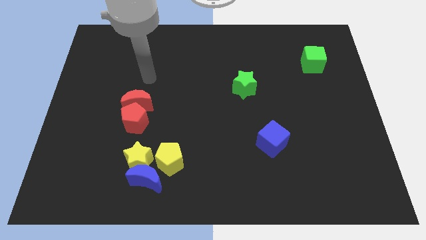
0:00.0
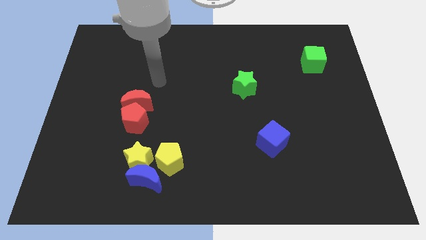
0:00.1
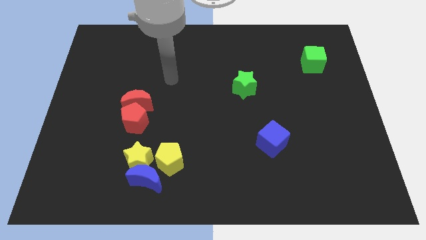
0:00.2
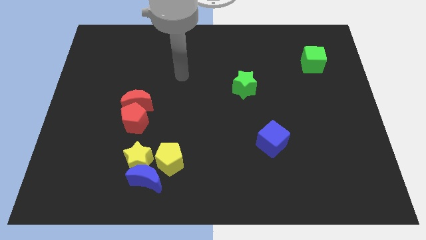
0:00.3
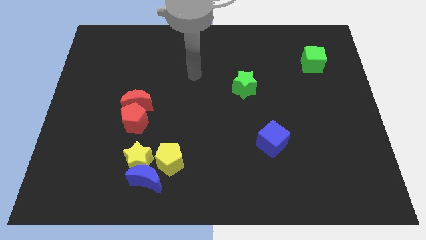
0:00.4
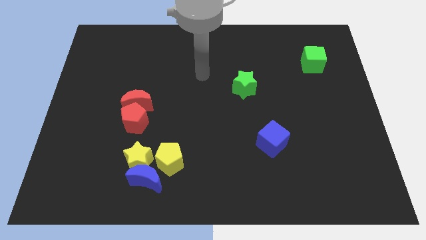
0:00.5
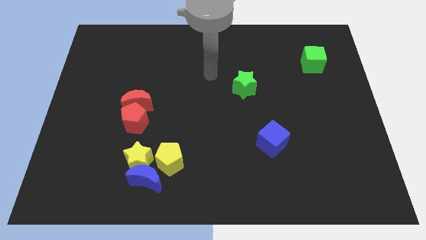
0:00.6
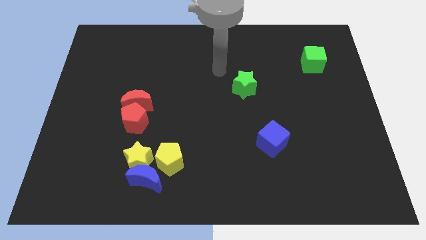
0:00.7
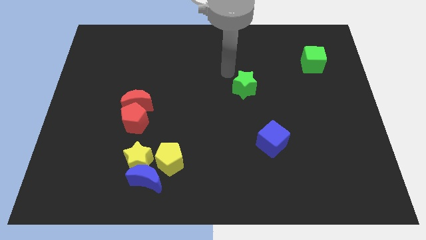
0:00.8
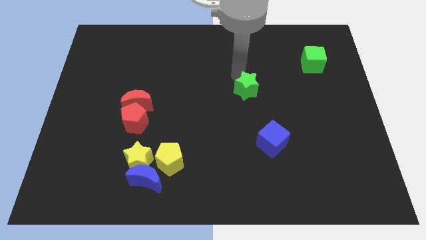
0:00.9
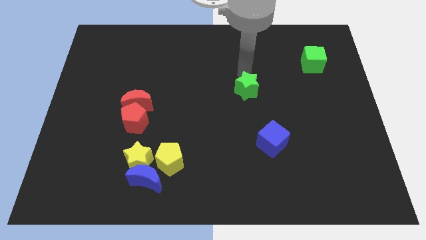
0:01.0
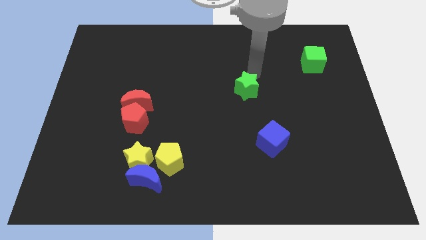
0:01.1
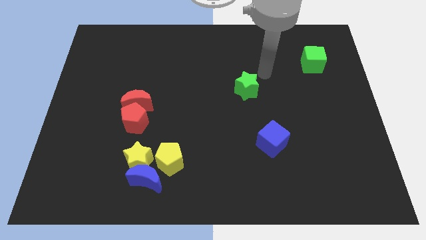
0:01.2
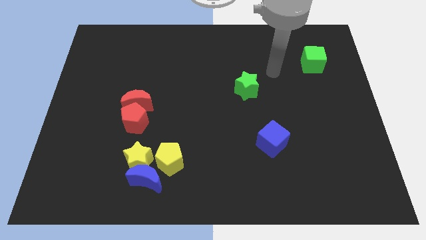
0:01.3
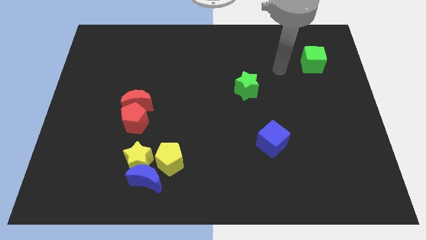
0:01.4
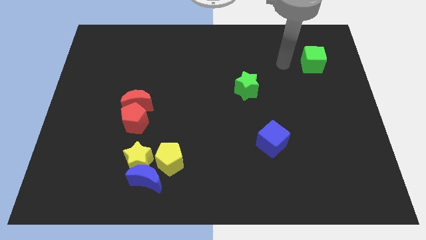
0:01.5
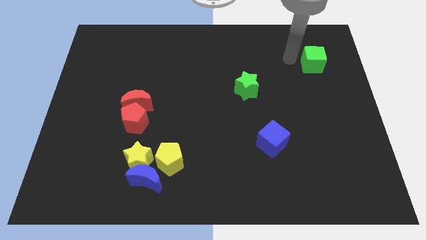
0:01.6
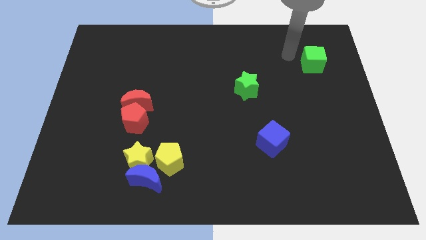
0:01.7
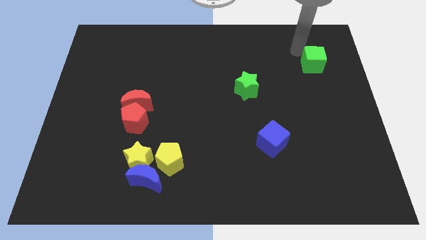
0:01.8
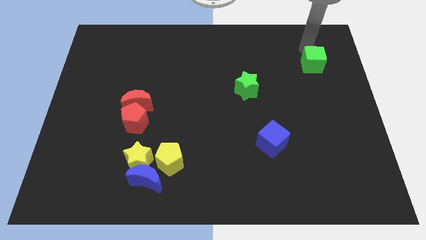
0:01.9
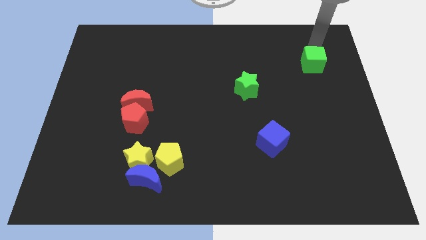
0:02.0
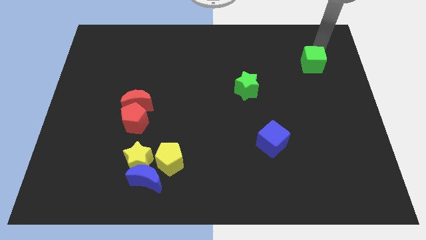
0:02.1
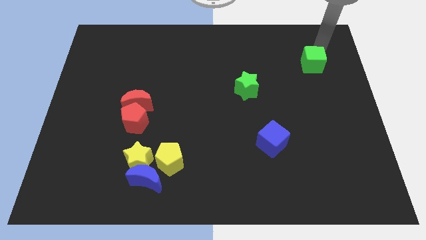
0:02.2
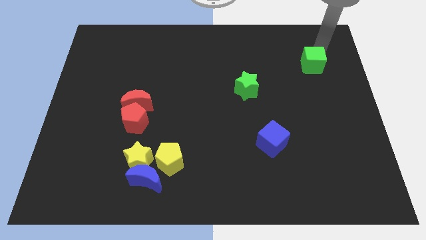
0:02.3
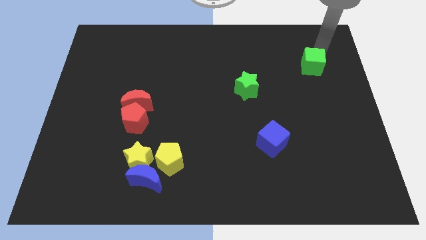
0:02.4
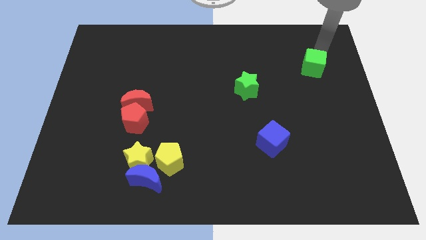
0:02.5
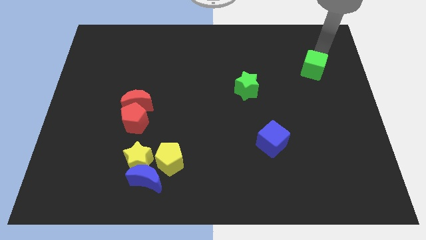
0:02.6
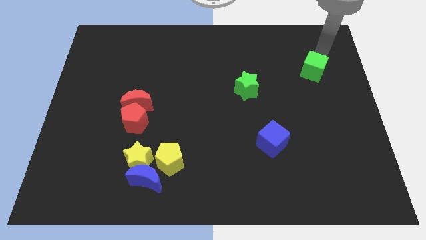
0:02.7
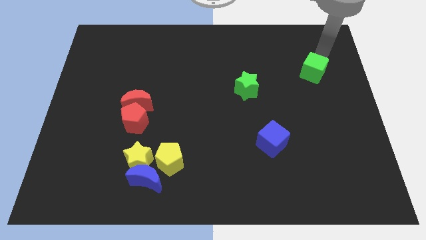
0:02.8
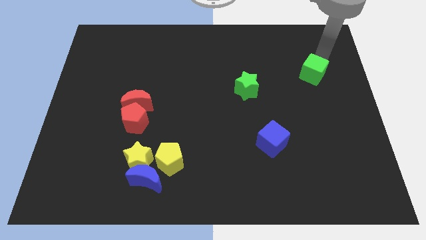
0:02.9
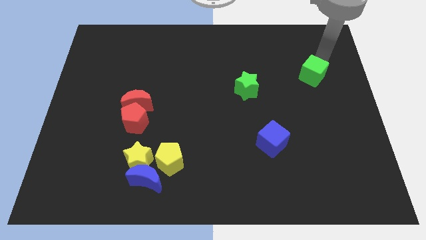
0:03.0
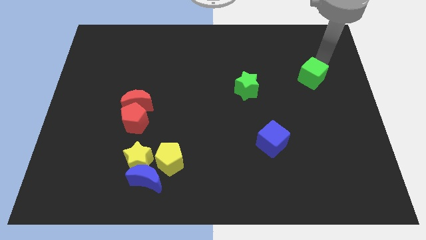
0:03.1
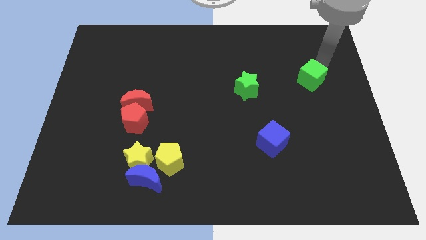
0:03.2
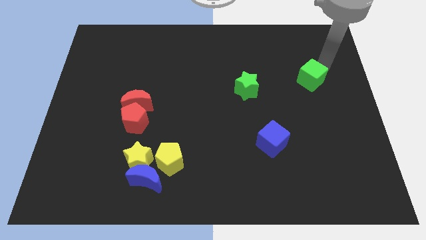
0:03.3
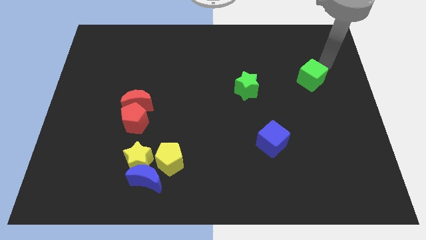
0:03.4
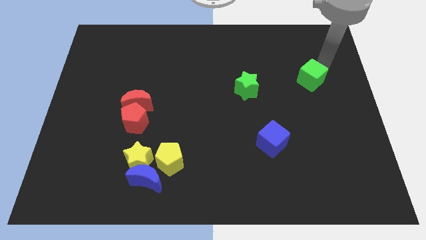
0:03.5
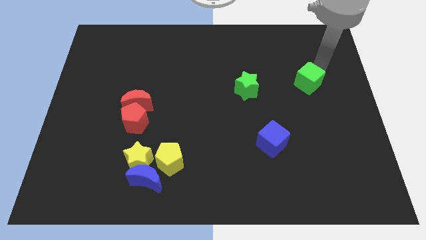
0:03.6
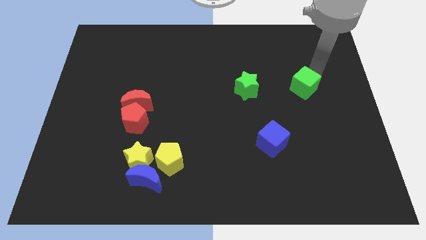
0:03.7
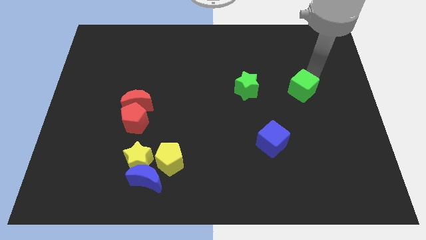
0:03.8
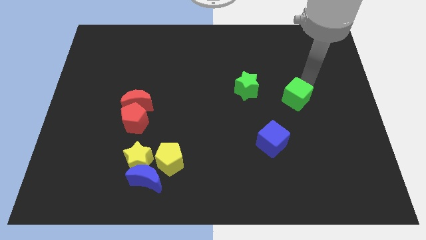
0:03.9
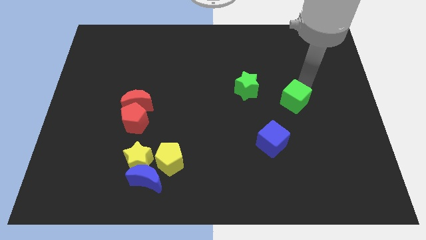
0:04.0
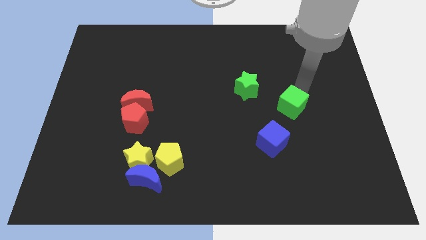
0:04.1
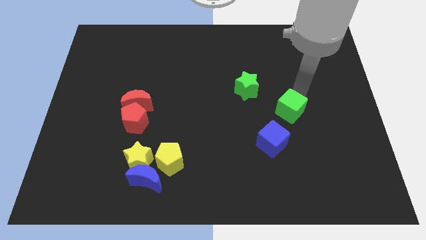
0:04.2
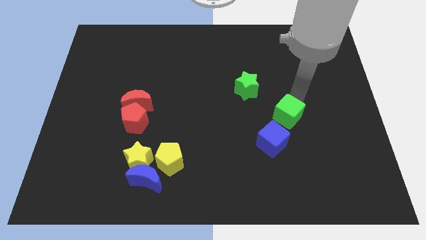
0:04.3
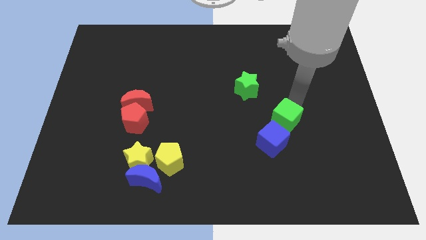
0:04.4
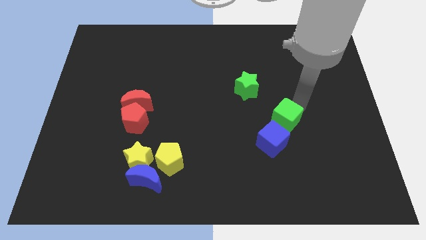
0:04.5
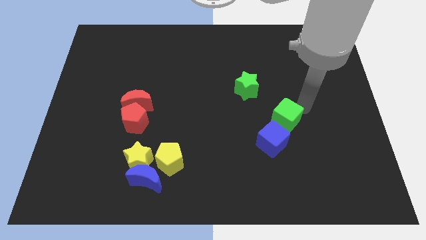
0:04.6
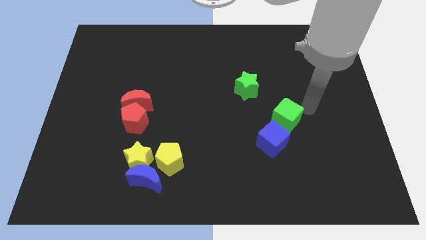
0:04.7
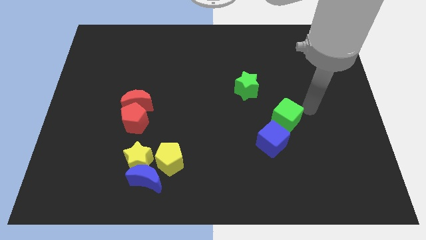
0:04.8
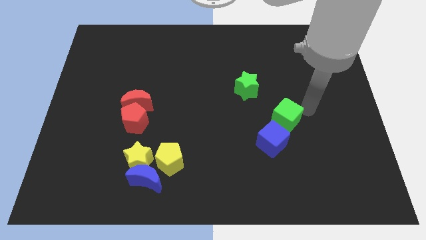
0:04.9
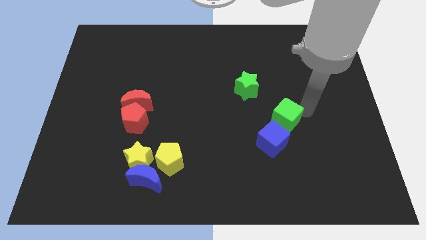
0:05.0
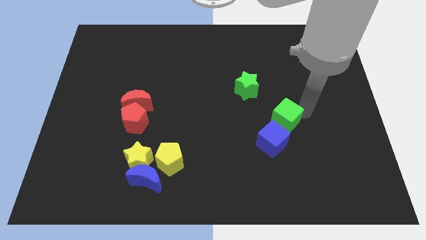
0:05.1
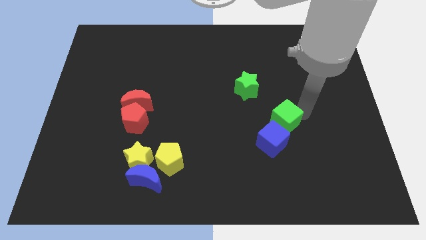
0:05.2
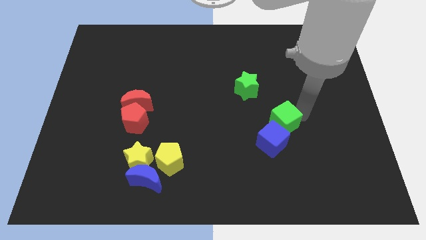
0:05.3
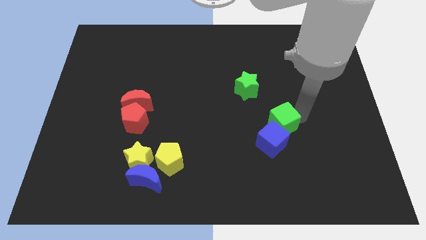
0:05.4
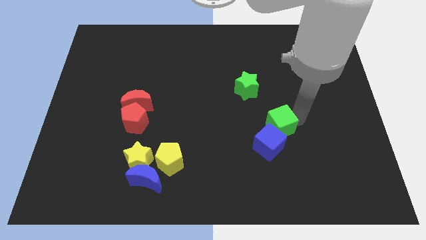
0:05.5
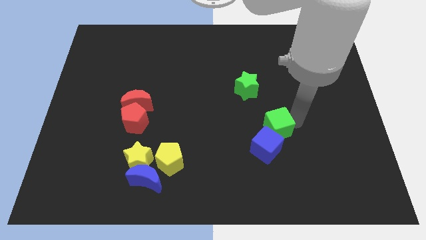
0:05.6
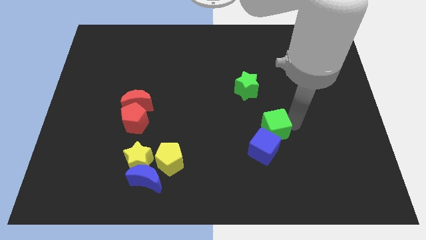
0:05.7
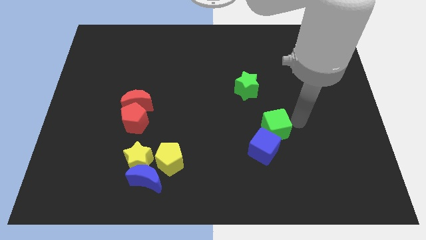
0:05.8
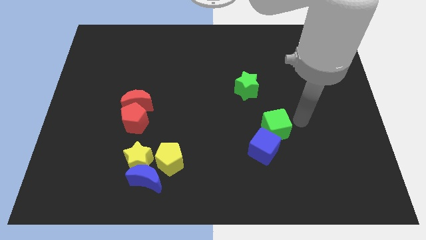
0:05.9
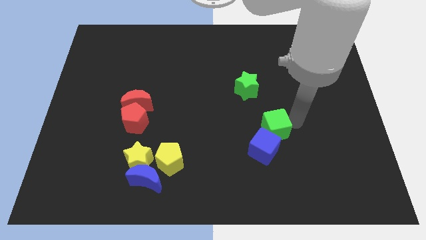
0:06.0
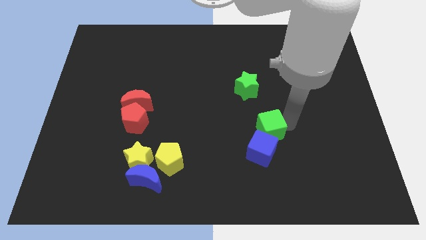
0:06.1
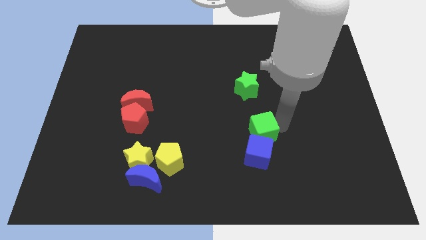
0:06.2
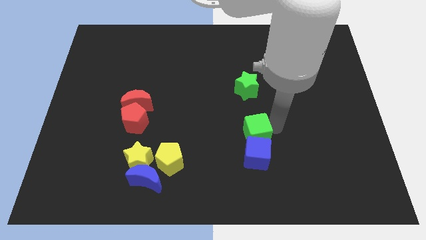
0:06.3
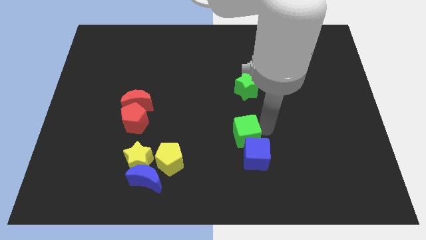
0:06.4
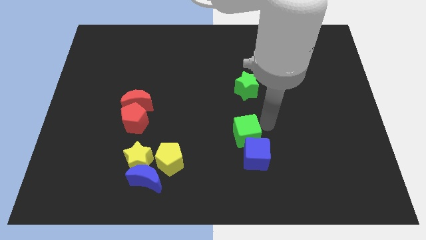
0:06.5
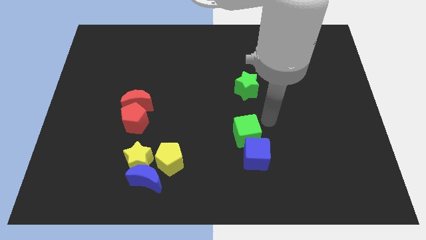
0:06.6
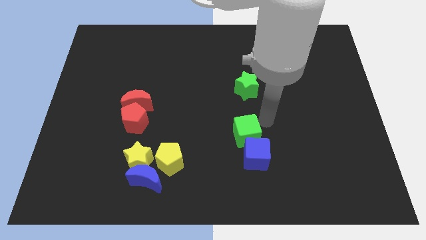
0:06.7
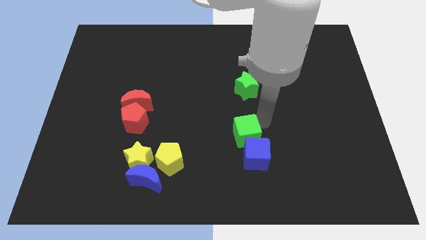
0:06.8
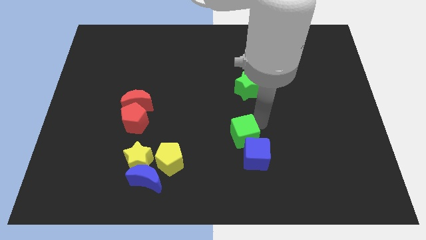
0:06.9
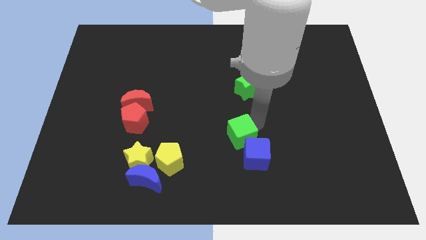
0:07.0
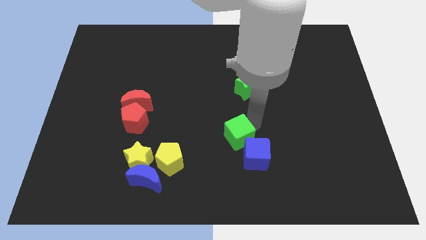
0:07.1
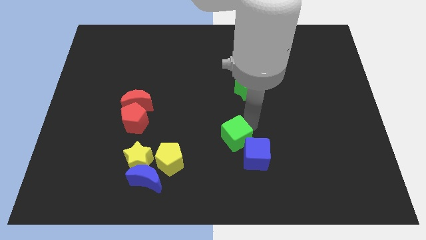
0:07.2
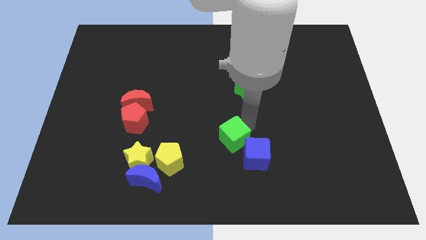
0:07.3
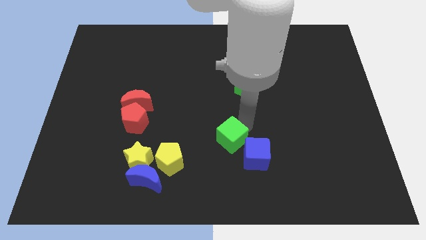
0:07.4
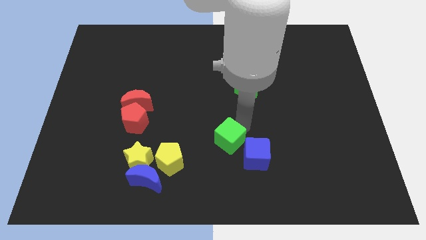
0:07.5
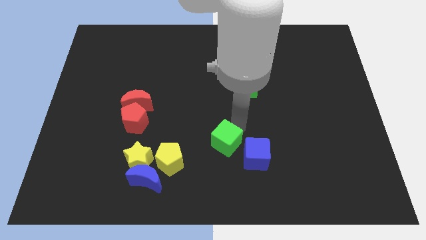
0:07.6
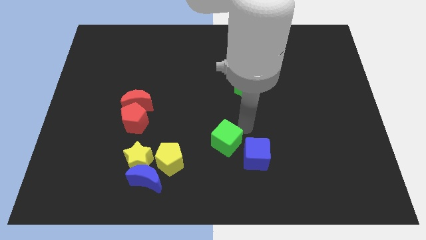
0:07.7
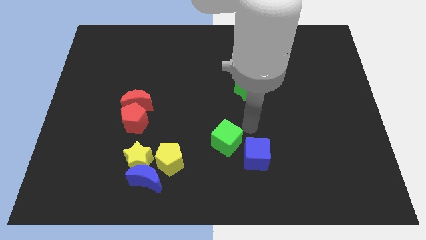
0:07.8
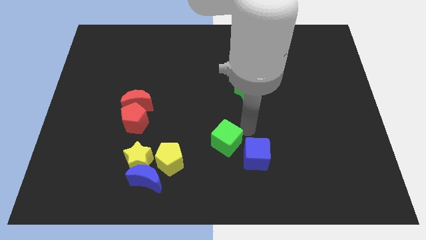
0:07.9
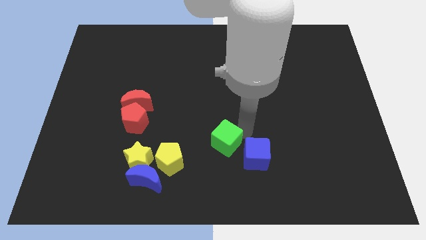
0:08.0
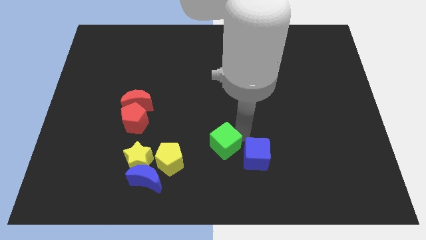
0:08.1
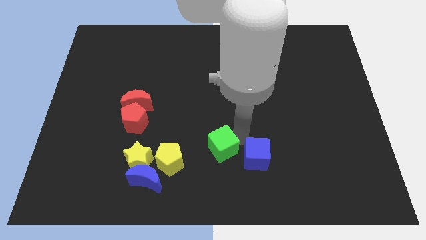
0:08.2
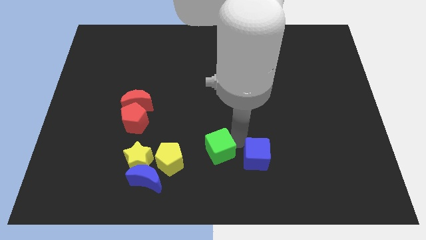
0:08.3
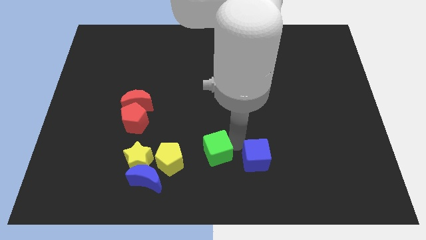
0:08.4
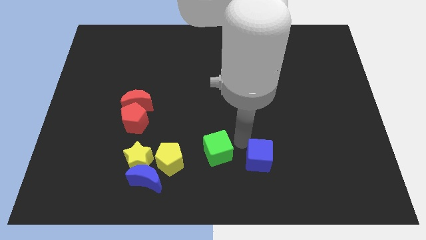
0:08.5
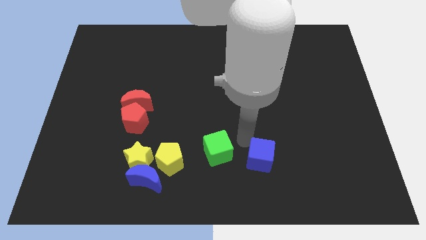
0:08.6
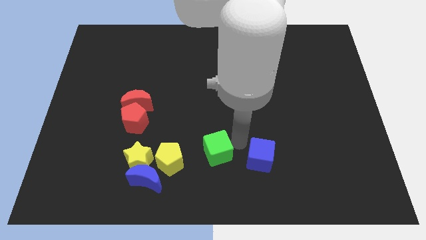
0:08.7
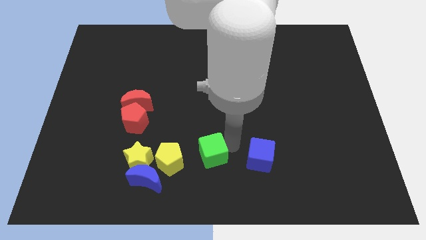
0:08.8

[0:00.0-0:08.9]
put the green cube to the right of the yellow star
